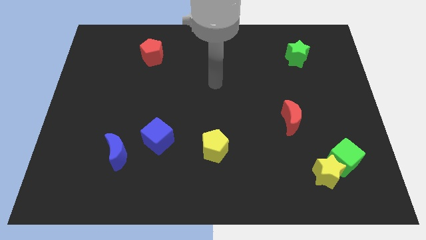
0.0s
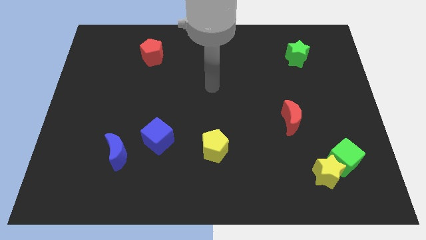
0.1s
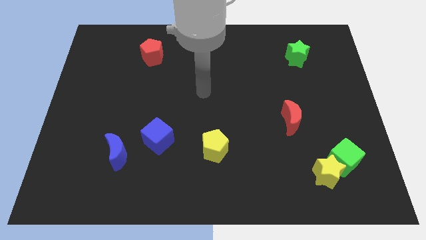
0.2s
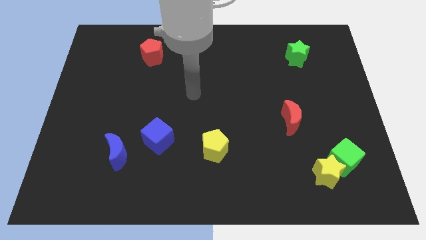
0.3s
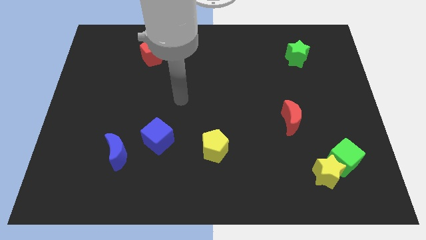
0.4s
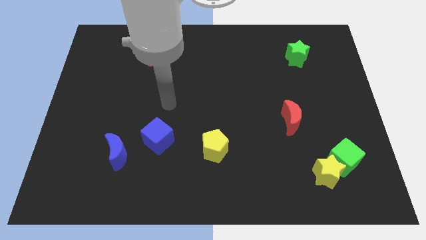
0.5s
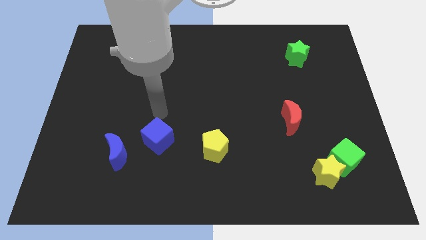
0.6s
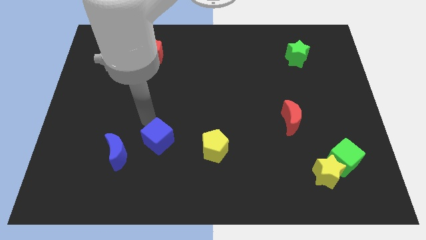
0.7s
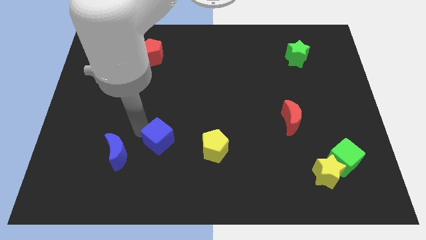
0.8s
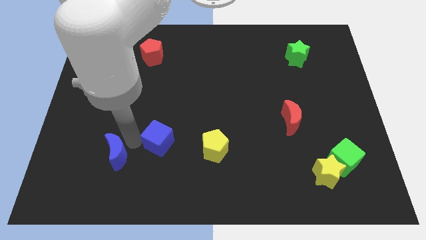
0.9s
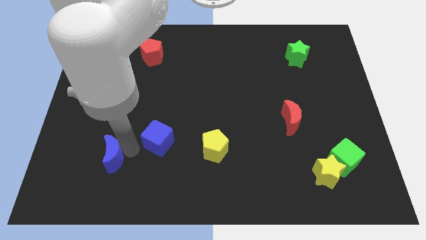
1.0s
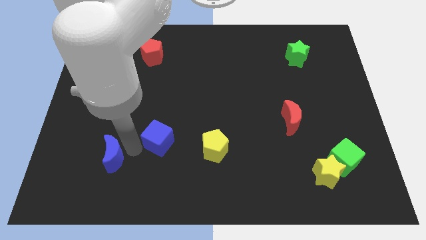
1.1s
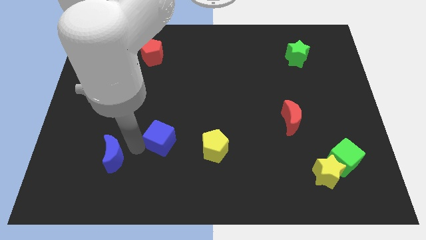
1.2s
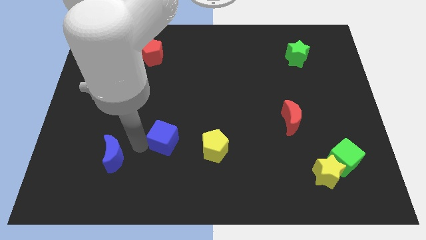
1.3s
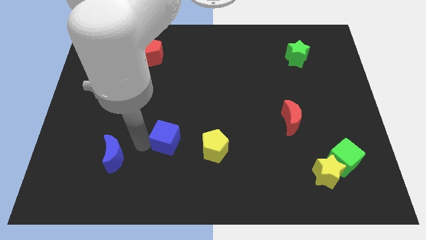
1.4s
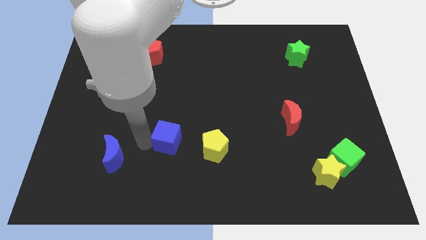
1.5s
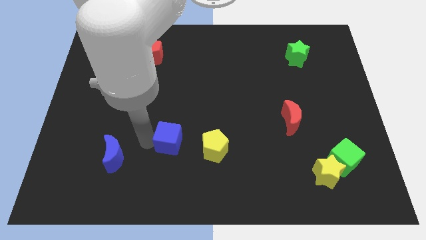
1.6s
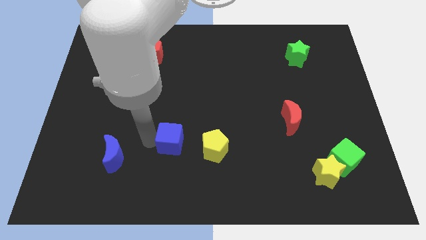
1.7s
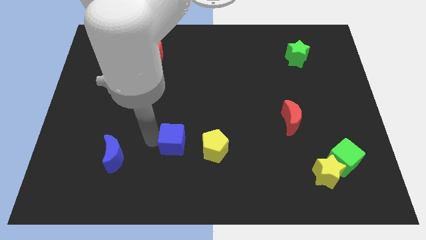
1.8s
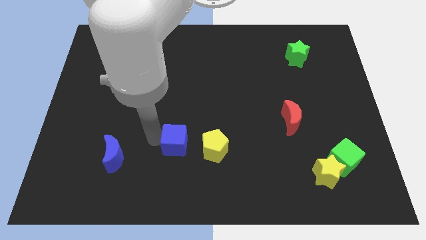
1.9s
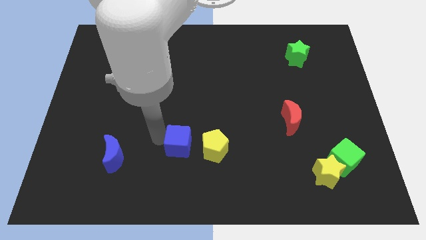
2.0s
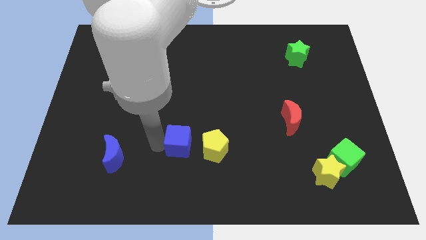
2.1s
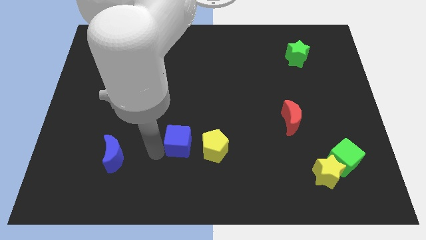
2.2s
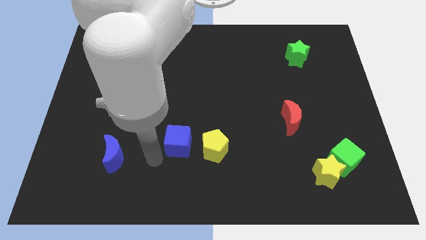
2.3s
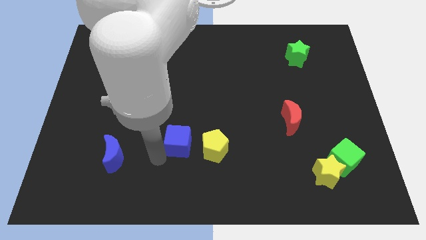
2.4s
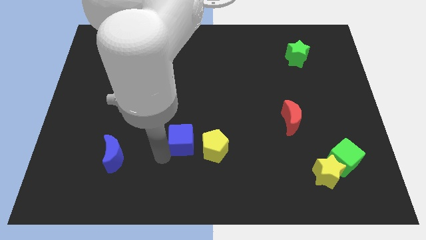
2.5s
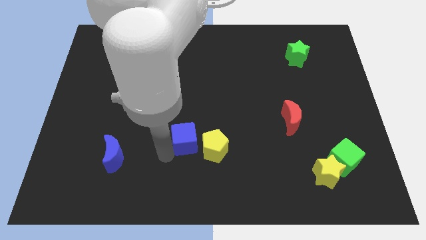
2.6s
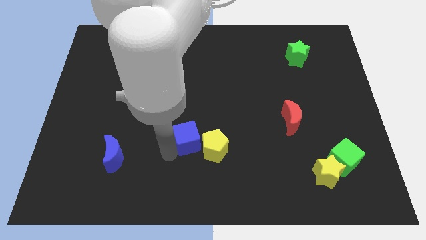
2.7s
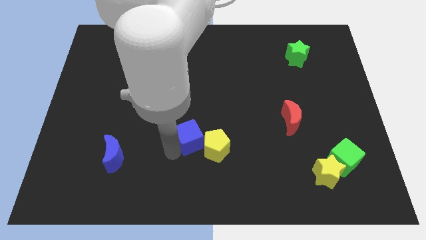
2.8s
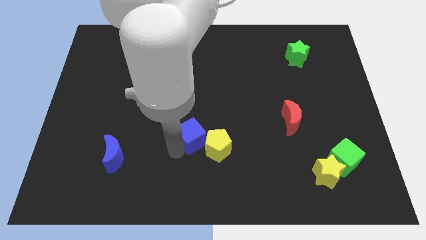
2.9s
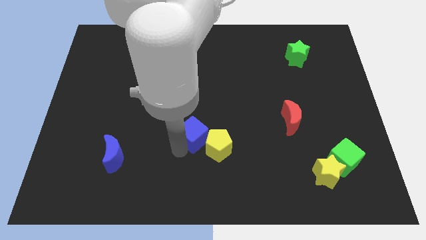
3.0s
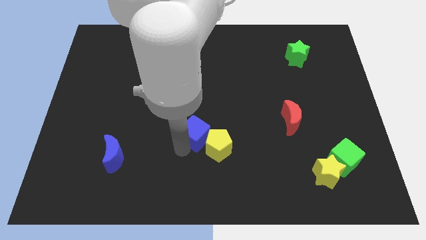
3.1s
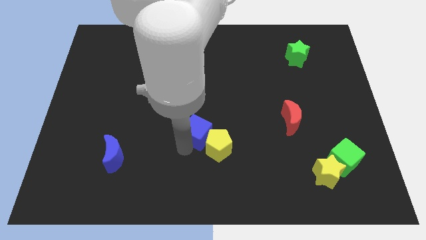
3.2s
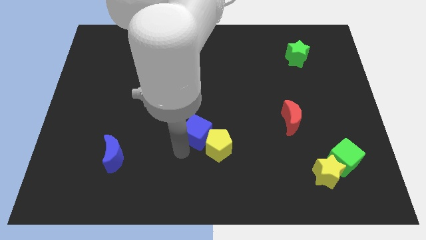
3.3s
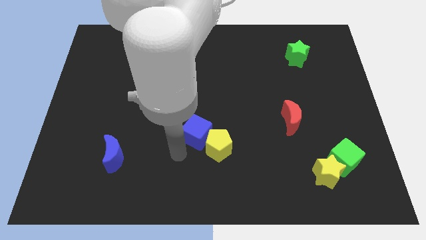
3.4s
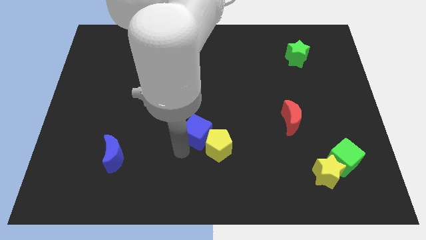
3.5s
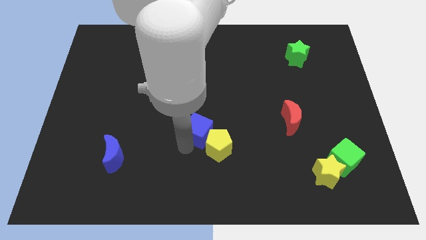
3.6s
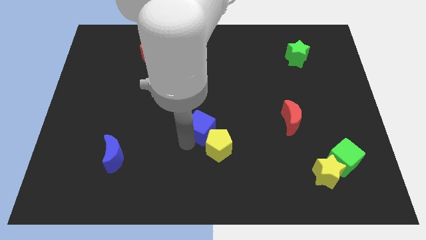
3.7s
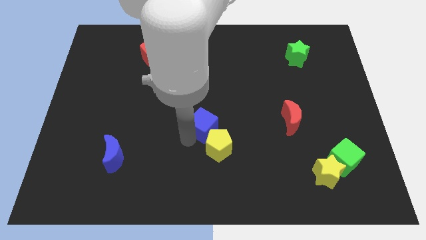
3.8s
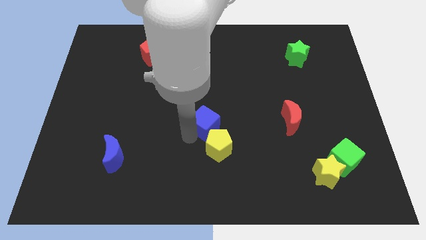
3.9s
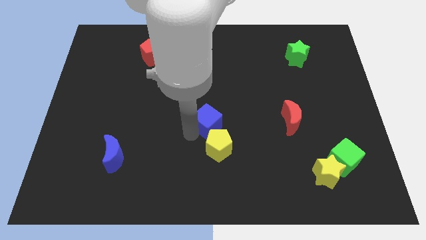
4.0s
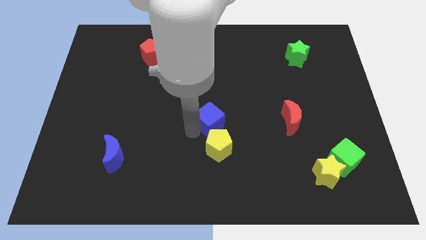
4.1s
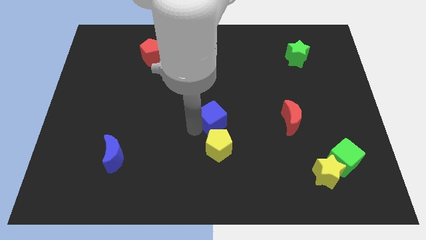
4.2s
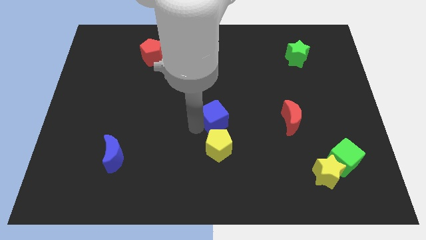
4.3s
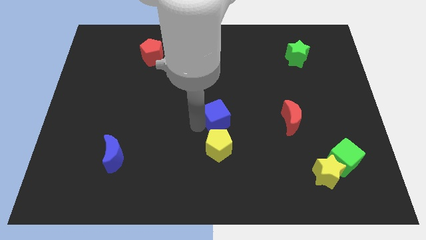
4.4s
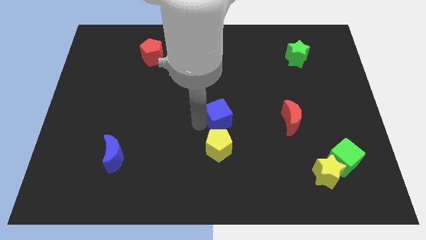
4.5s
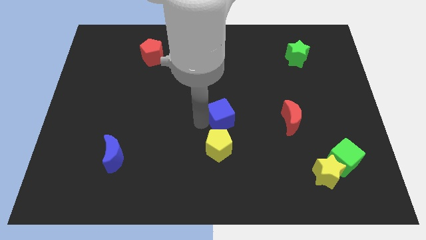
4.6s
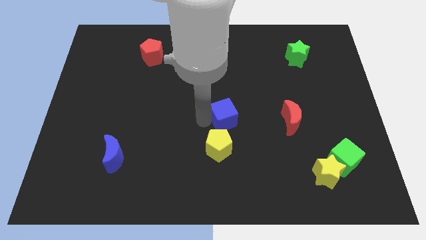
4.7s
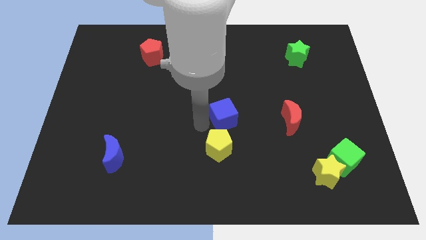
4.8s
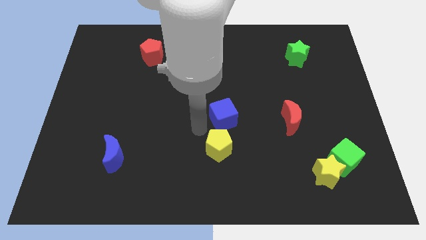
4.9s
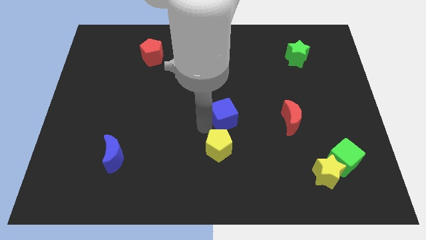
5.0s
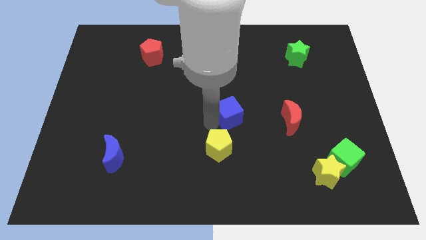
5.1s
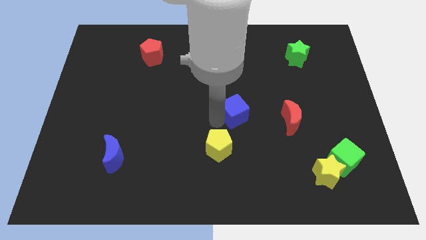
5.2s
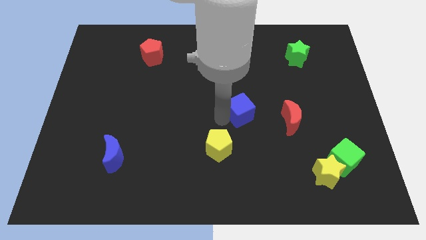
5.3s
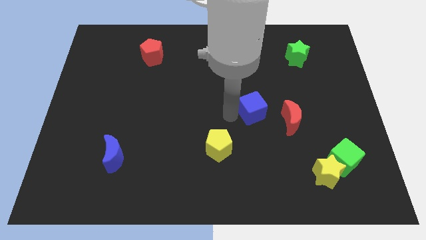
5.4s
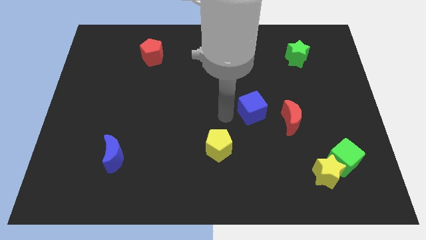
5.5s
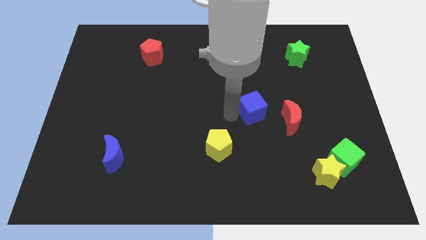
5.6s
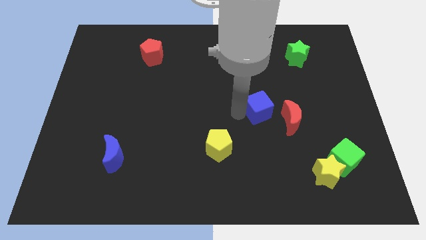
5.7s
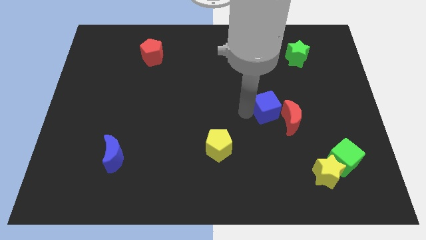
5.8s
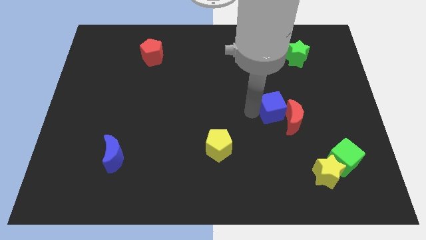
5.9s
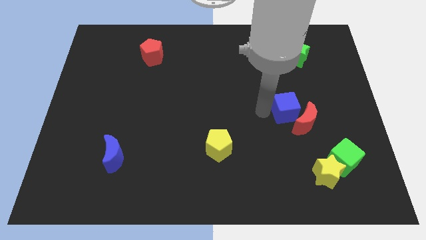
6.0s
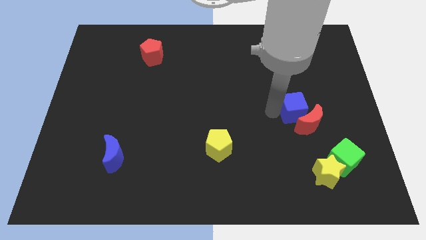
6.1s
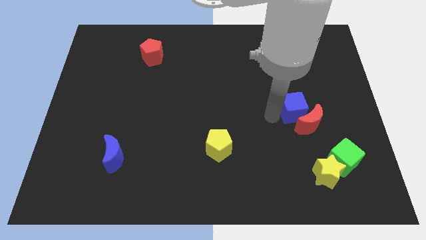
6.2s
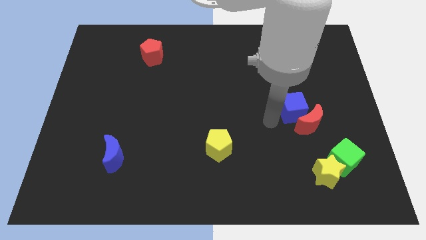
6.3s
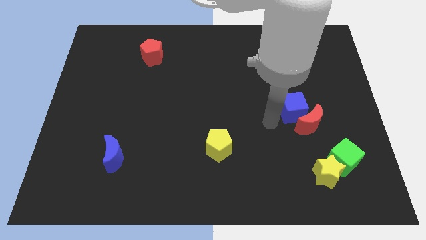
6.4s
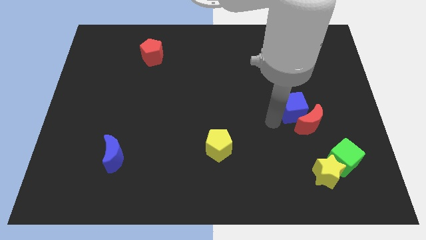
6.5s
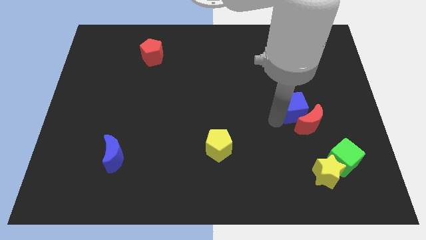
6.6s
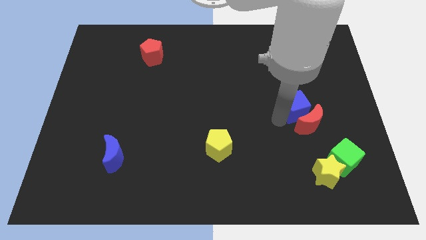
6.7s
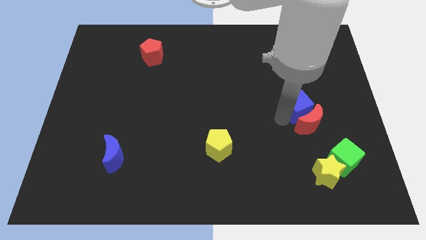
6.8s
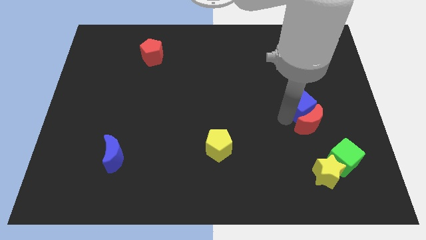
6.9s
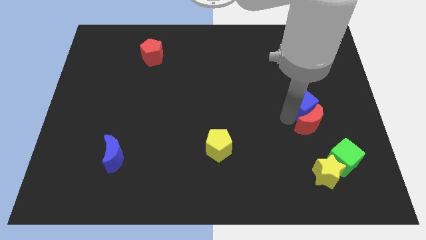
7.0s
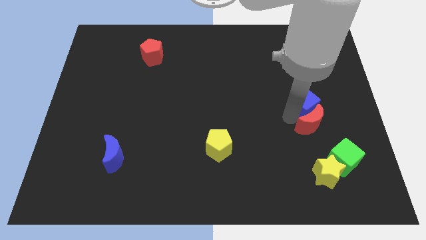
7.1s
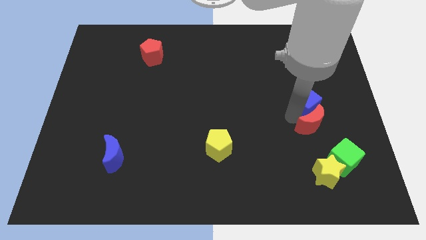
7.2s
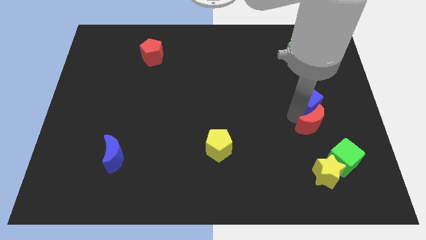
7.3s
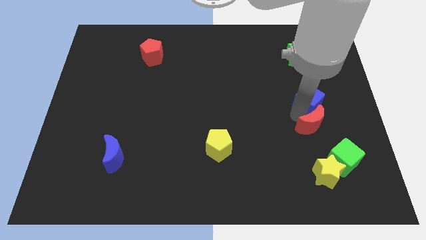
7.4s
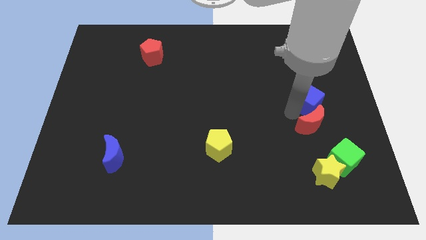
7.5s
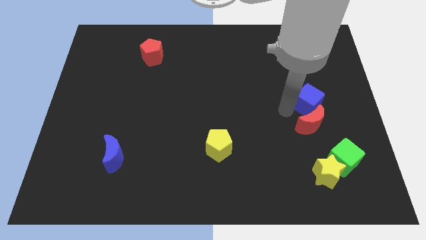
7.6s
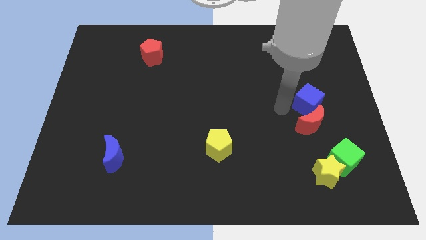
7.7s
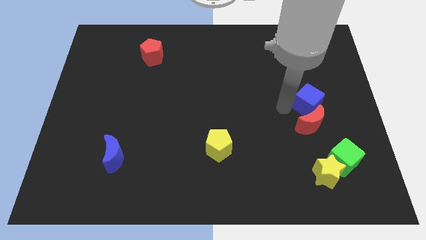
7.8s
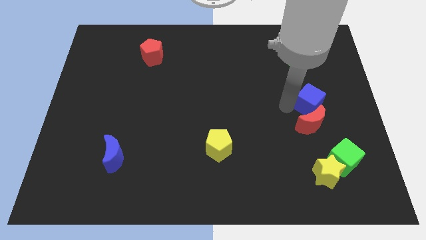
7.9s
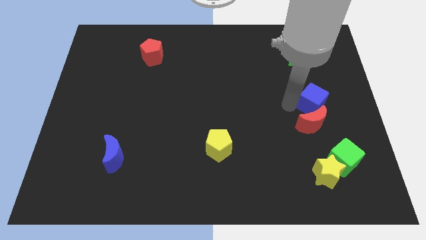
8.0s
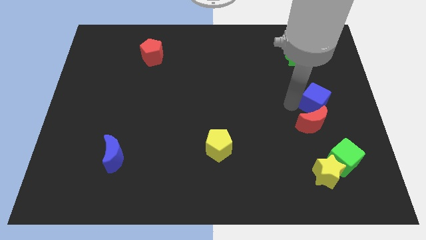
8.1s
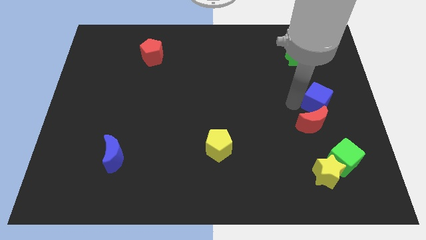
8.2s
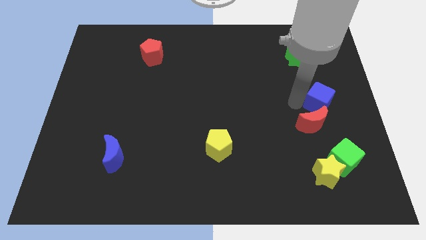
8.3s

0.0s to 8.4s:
put the blue cube to the right side
